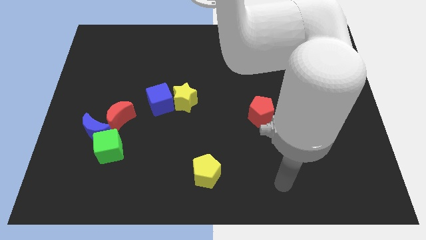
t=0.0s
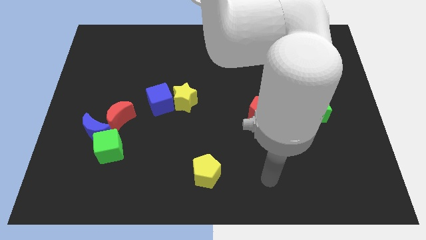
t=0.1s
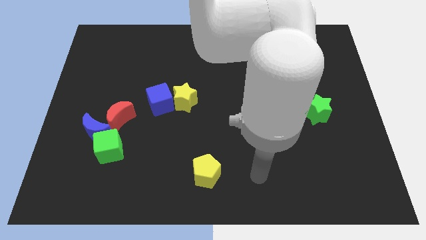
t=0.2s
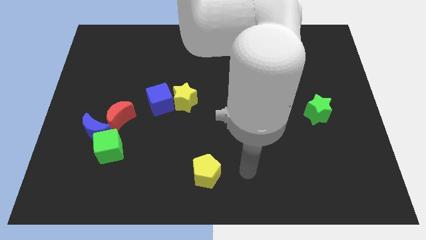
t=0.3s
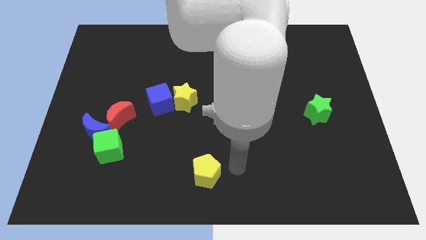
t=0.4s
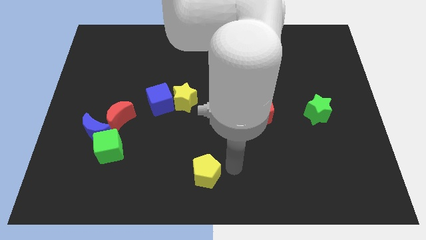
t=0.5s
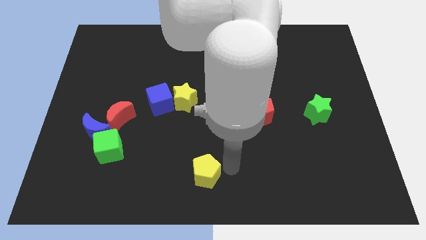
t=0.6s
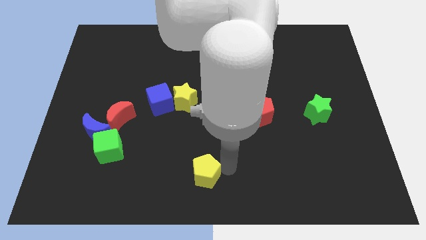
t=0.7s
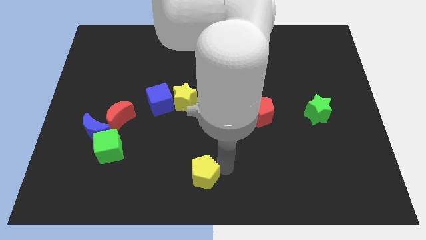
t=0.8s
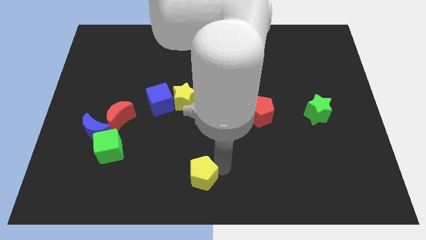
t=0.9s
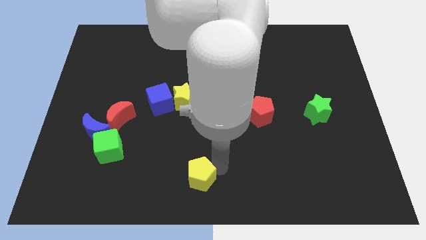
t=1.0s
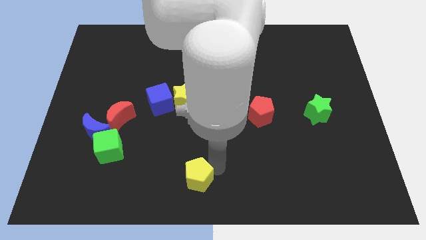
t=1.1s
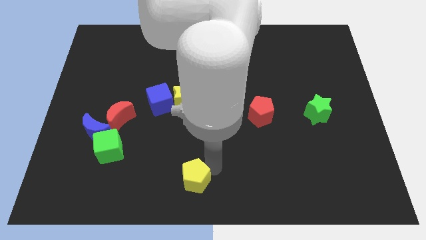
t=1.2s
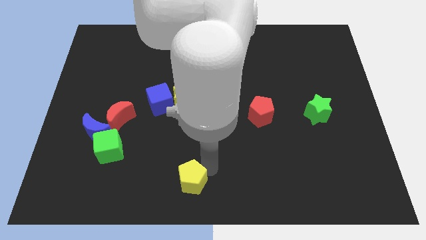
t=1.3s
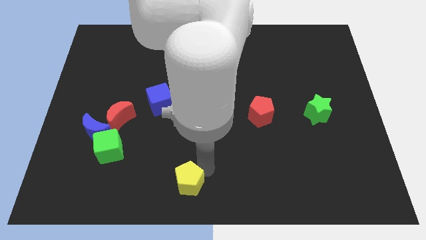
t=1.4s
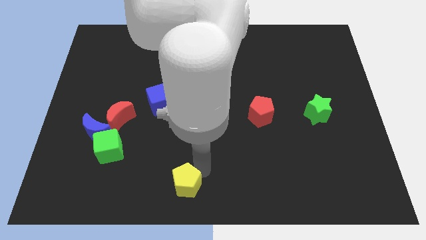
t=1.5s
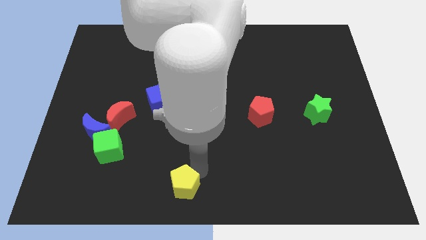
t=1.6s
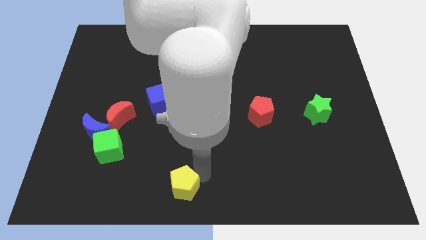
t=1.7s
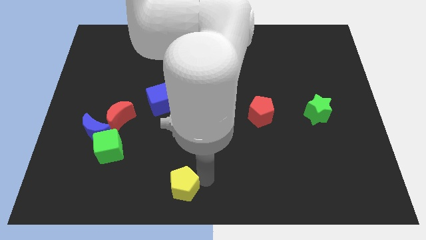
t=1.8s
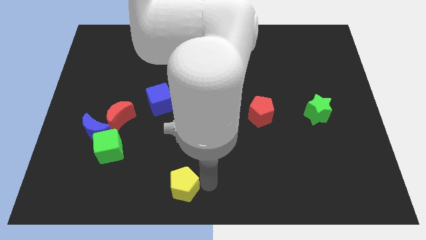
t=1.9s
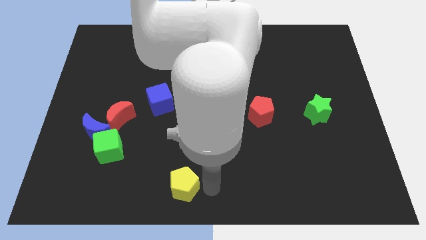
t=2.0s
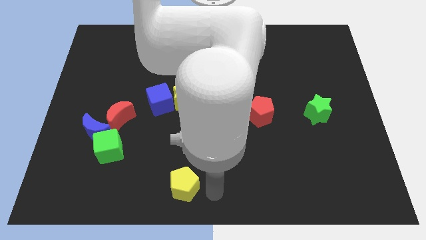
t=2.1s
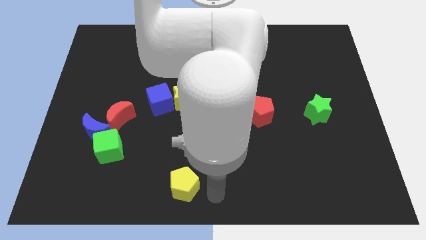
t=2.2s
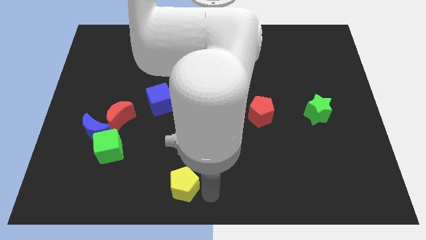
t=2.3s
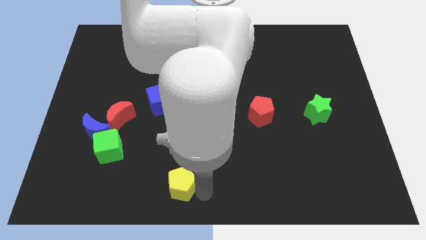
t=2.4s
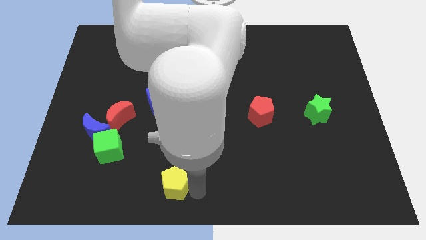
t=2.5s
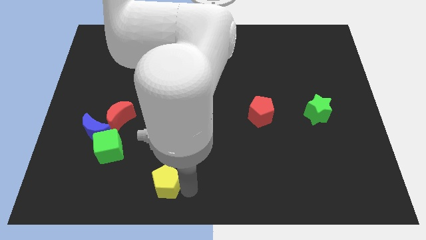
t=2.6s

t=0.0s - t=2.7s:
push the yellow pentagon somewhat to the left

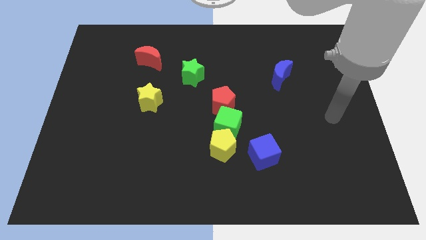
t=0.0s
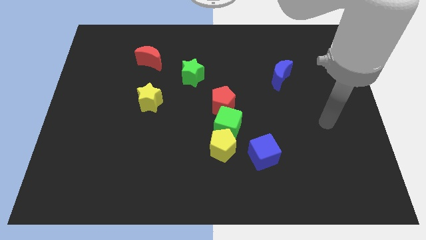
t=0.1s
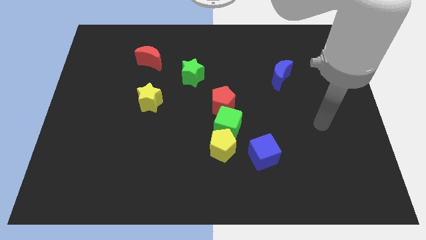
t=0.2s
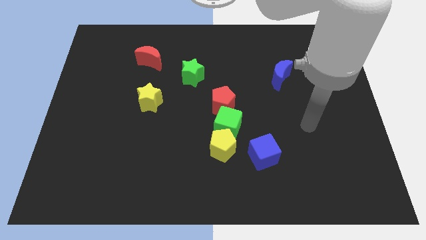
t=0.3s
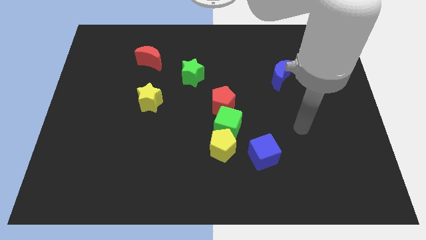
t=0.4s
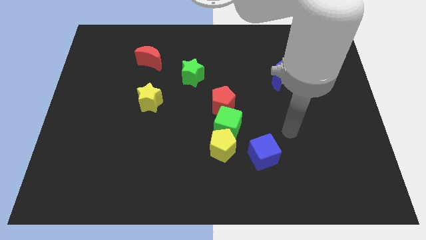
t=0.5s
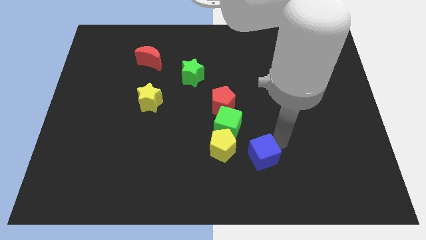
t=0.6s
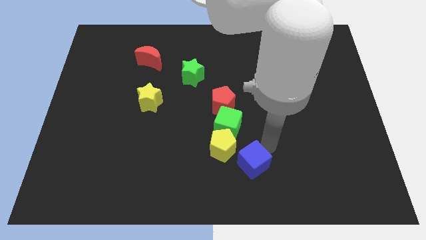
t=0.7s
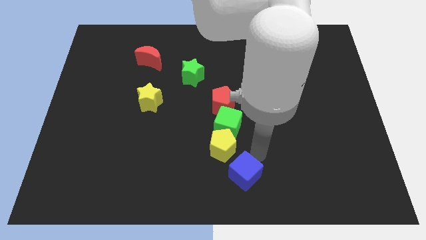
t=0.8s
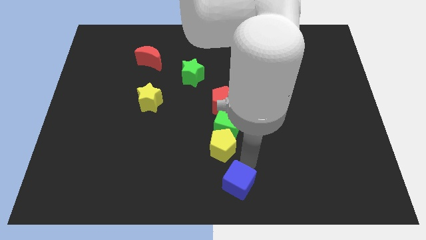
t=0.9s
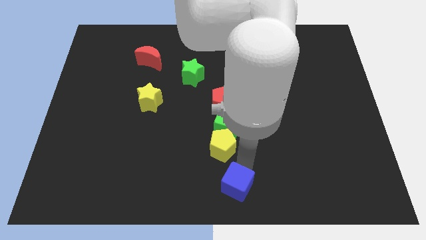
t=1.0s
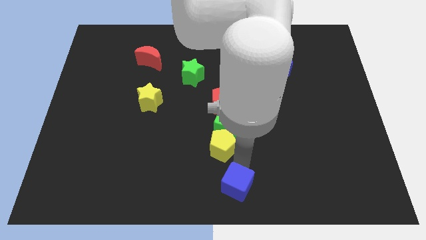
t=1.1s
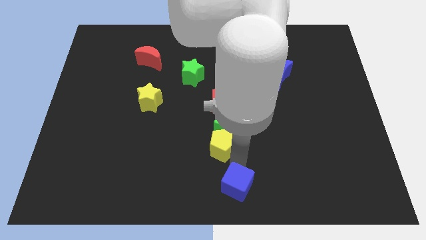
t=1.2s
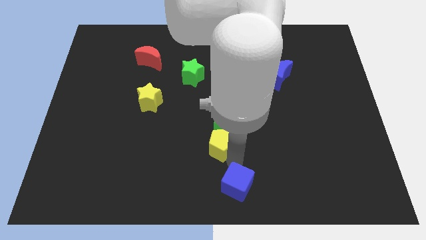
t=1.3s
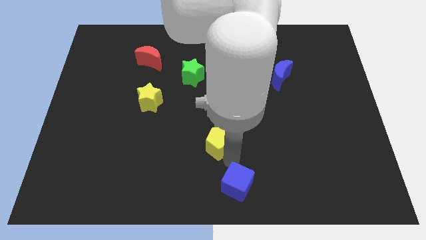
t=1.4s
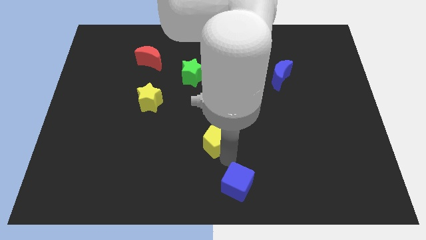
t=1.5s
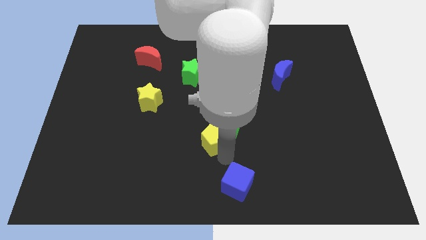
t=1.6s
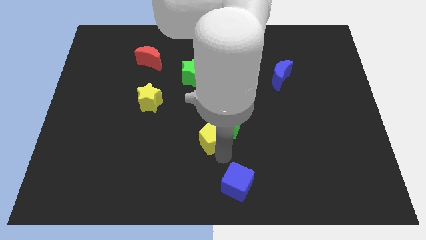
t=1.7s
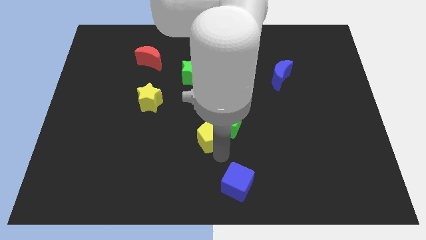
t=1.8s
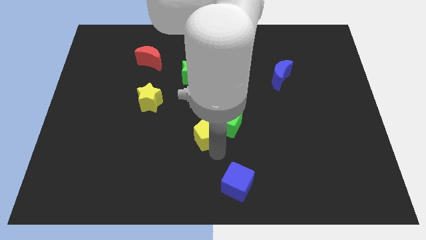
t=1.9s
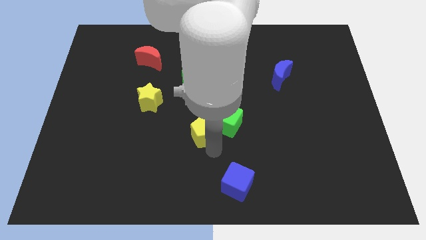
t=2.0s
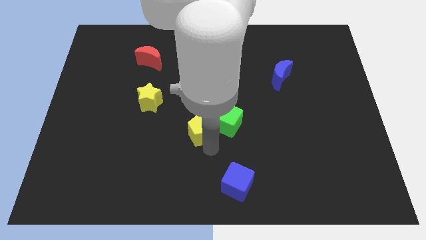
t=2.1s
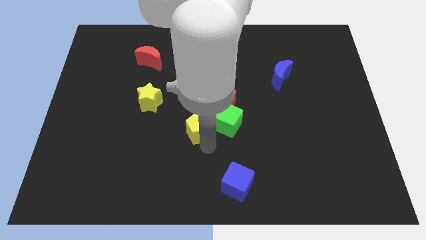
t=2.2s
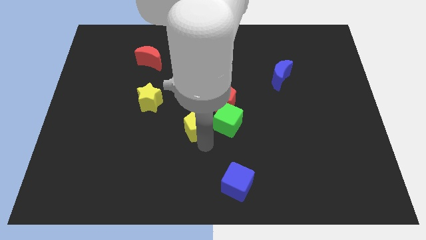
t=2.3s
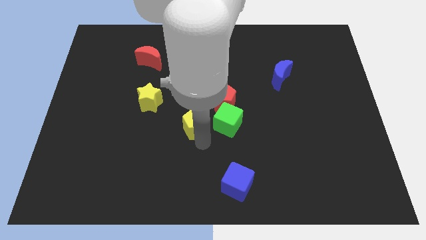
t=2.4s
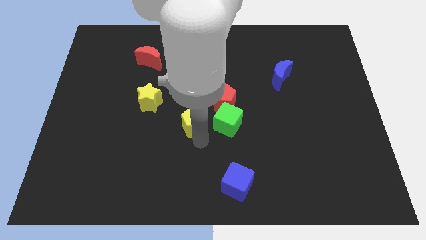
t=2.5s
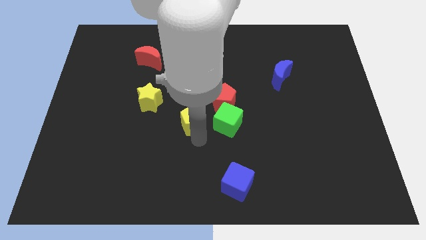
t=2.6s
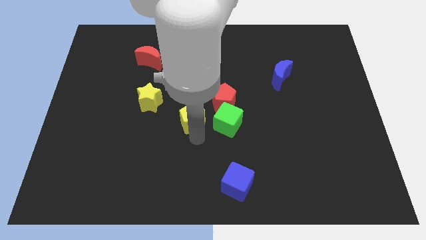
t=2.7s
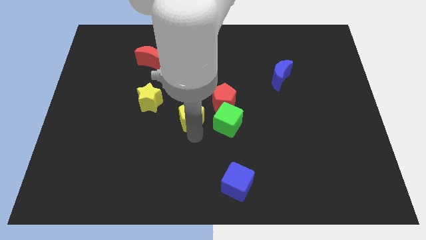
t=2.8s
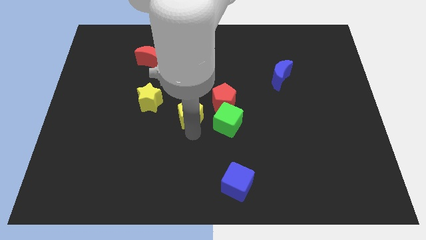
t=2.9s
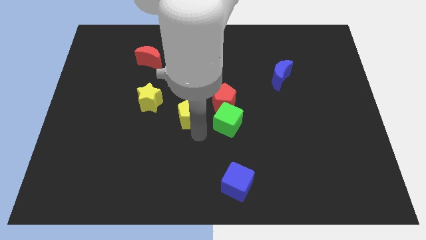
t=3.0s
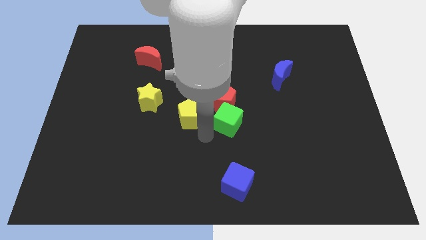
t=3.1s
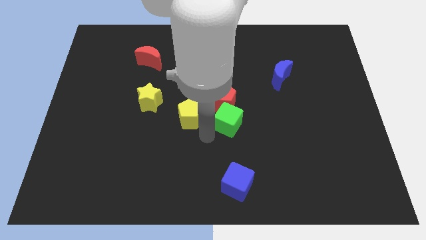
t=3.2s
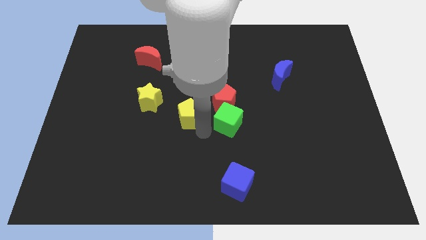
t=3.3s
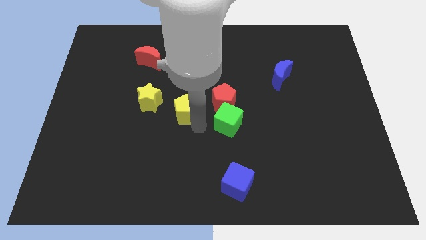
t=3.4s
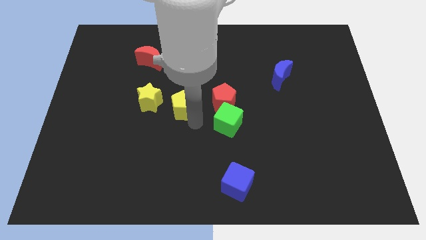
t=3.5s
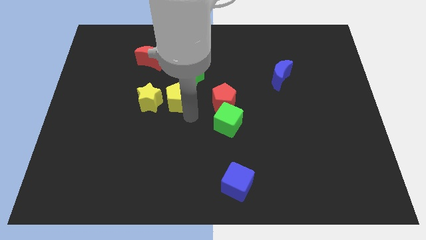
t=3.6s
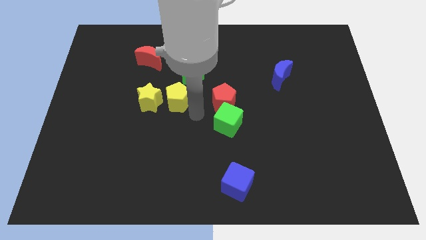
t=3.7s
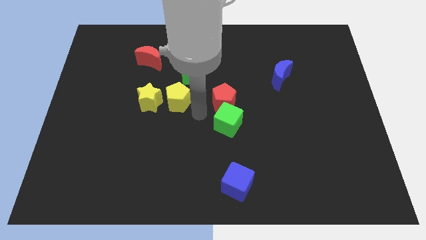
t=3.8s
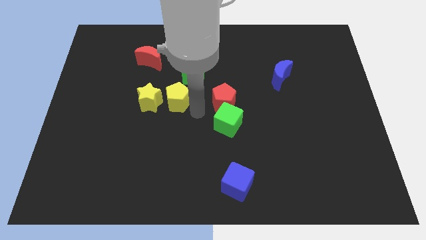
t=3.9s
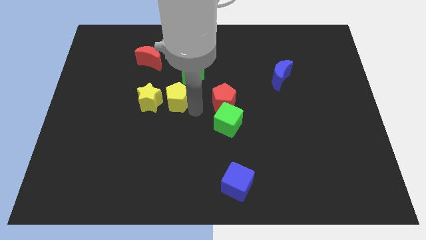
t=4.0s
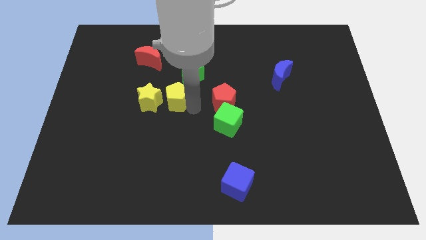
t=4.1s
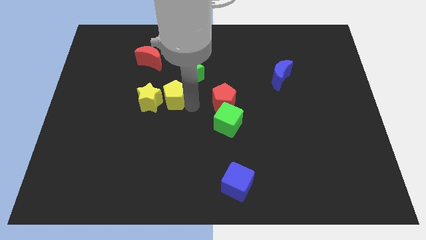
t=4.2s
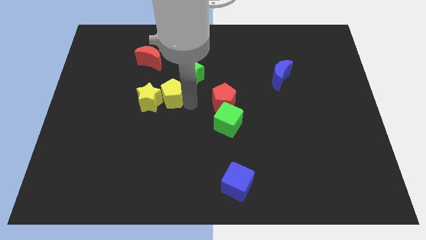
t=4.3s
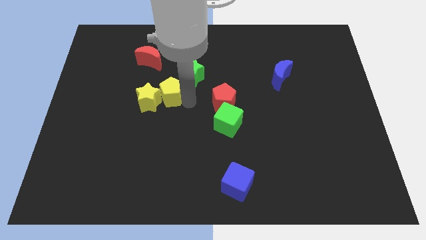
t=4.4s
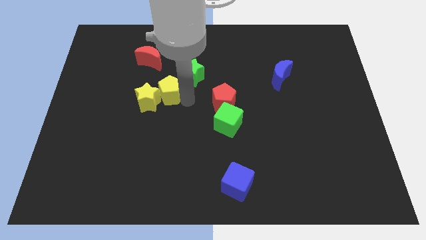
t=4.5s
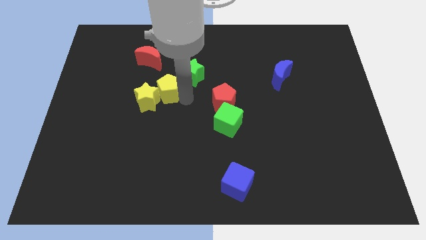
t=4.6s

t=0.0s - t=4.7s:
move the yellow pentagon diagonally upwards and to the left

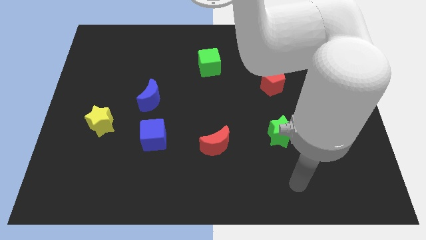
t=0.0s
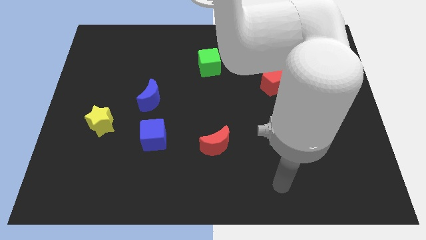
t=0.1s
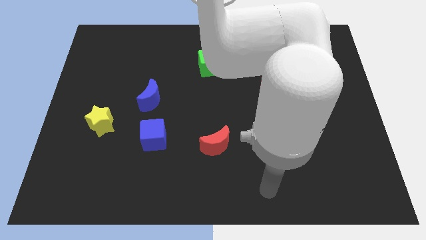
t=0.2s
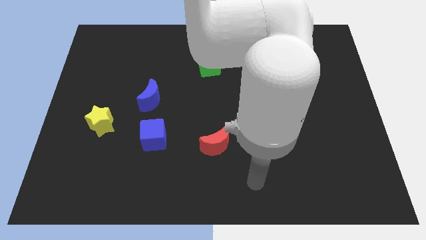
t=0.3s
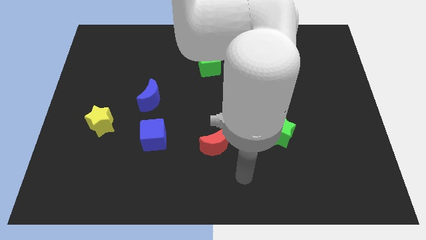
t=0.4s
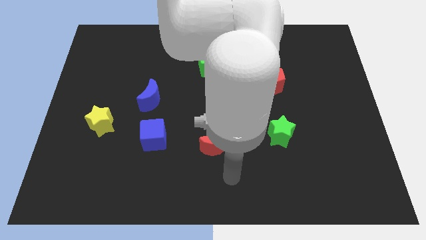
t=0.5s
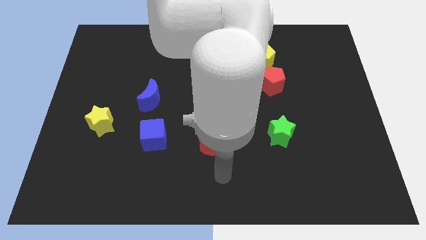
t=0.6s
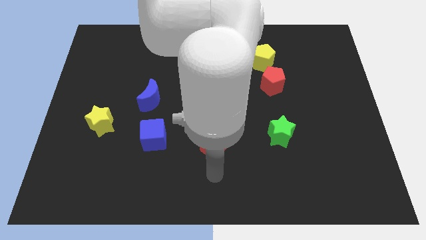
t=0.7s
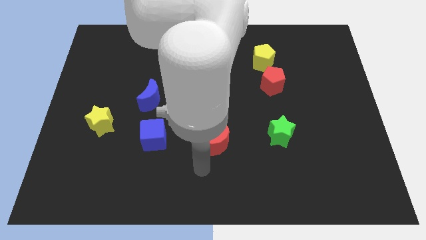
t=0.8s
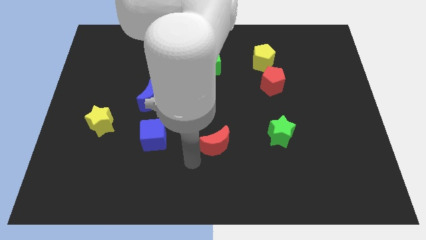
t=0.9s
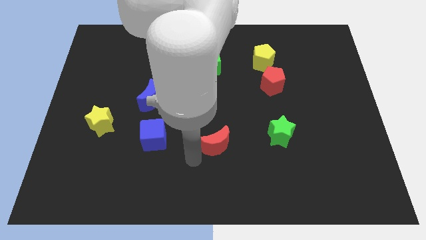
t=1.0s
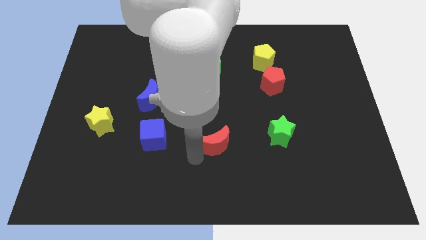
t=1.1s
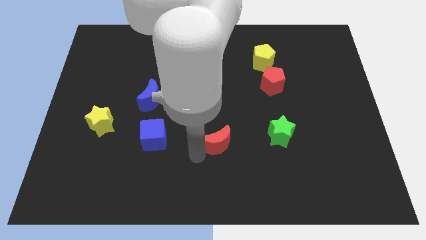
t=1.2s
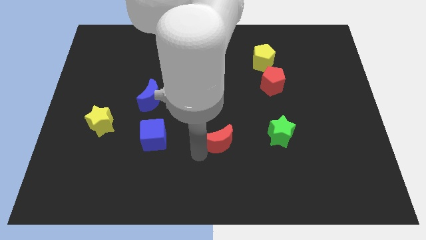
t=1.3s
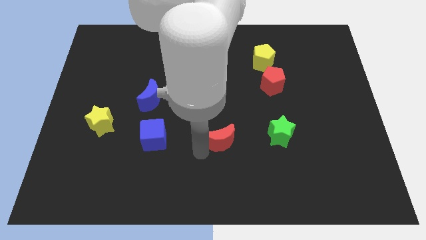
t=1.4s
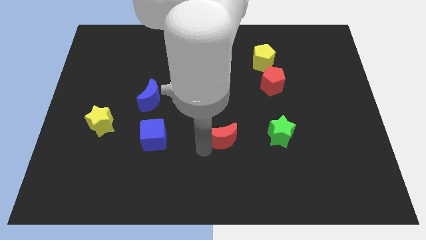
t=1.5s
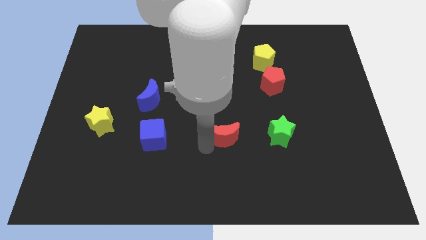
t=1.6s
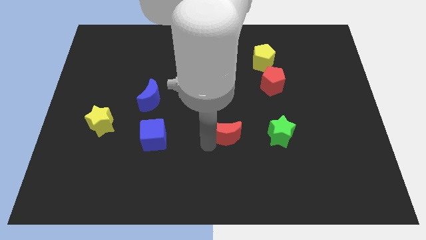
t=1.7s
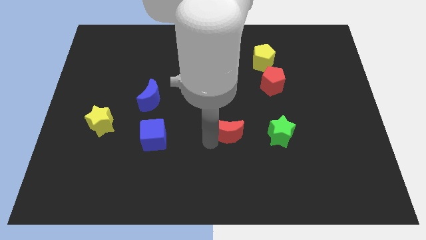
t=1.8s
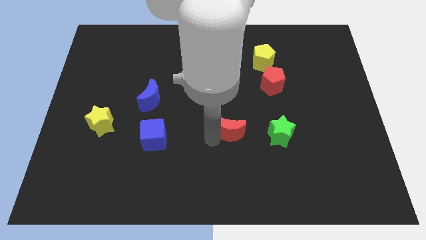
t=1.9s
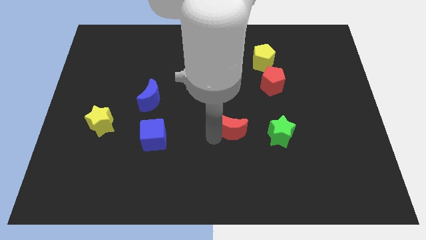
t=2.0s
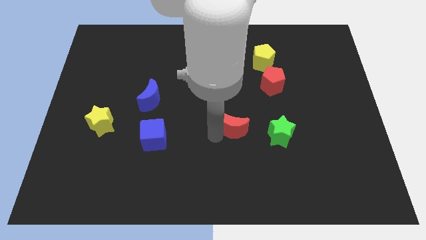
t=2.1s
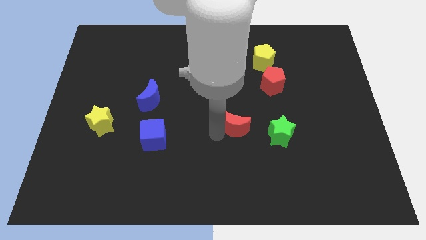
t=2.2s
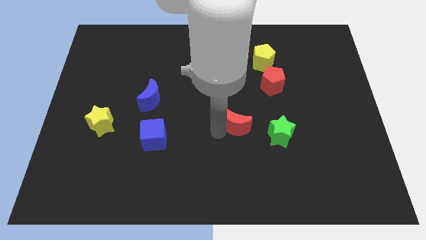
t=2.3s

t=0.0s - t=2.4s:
move the red moon upwards and then right a little
